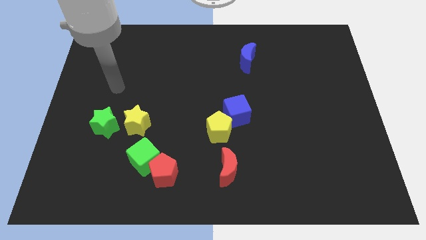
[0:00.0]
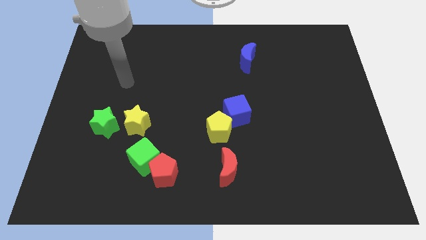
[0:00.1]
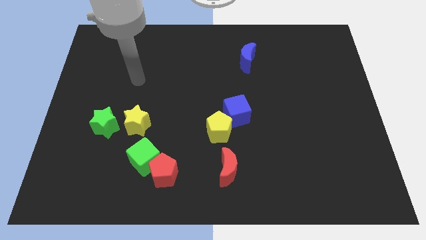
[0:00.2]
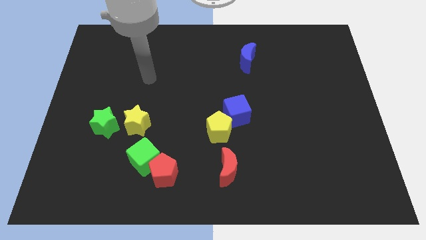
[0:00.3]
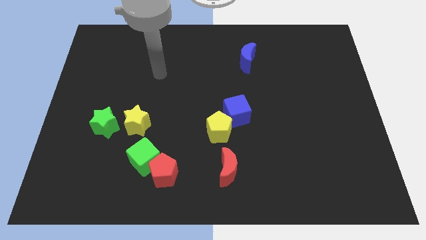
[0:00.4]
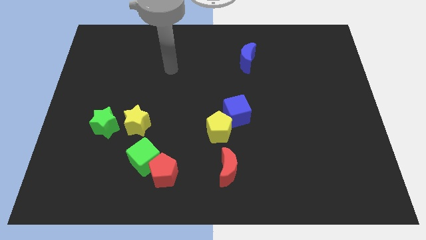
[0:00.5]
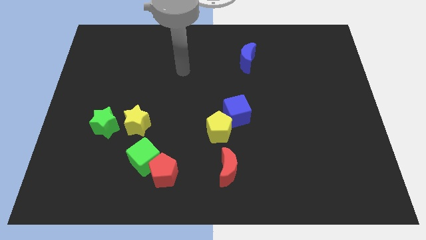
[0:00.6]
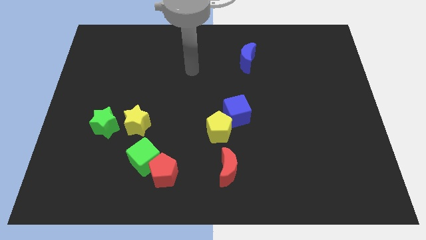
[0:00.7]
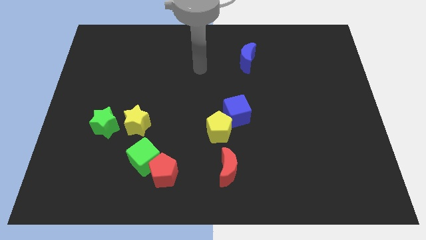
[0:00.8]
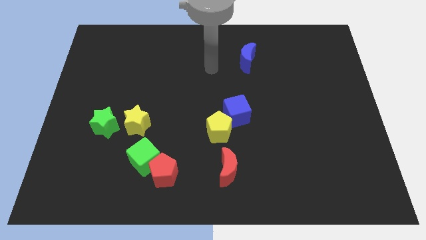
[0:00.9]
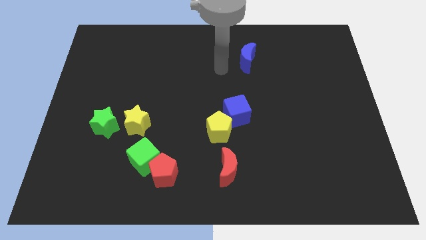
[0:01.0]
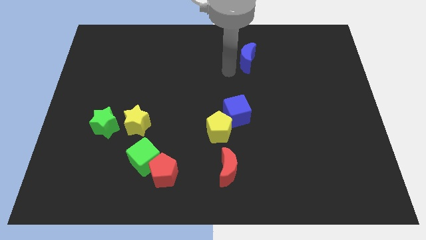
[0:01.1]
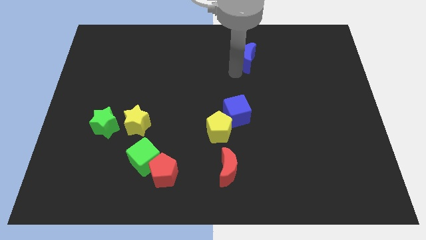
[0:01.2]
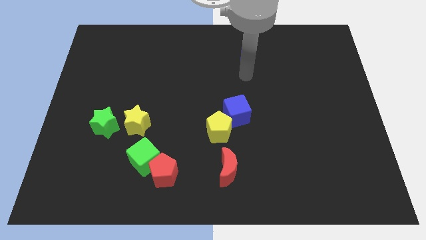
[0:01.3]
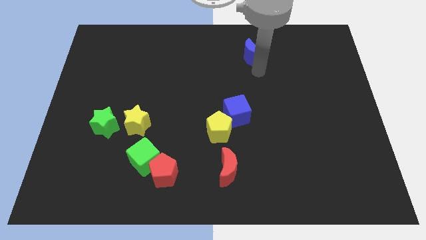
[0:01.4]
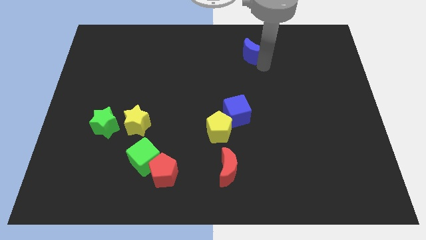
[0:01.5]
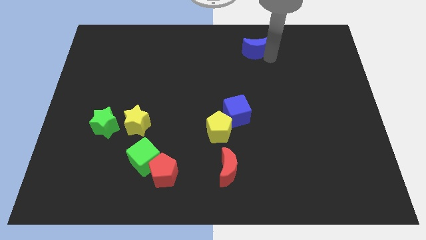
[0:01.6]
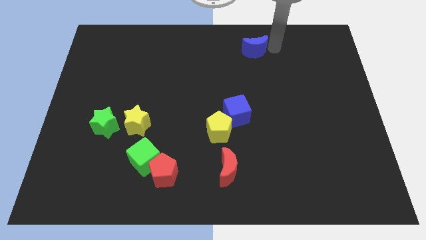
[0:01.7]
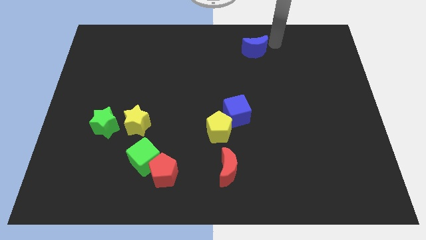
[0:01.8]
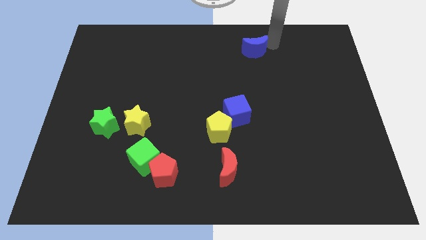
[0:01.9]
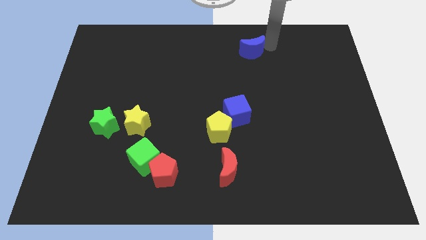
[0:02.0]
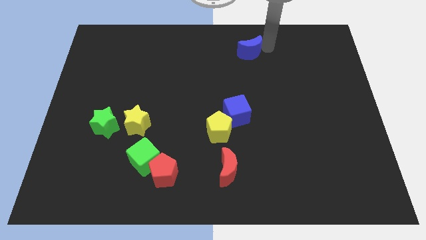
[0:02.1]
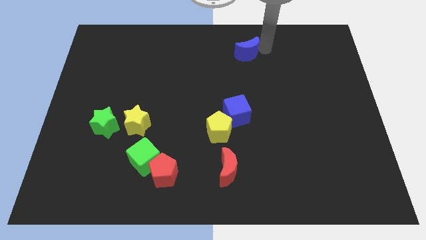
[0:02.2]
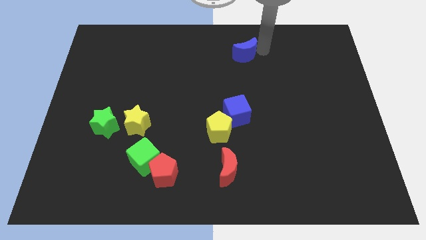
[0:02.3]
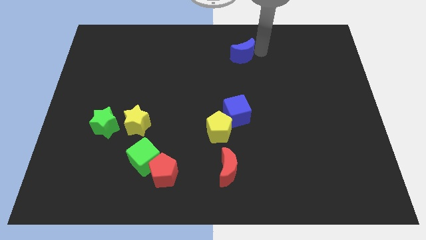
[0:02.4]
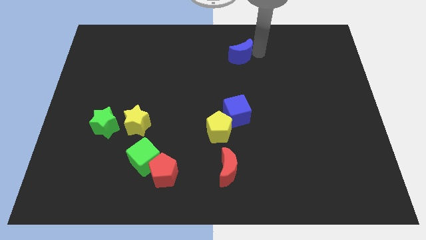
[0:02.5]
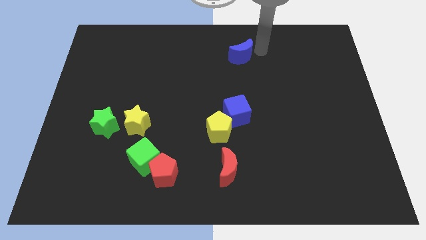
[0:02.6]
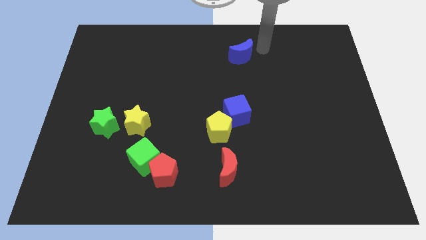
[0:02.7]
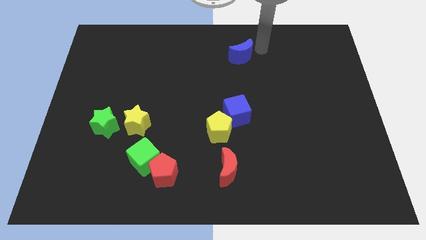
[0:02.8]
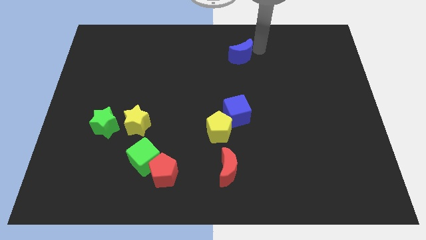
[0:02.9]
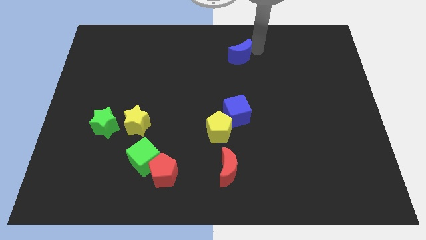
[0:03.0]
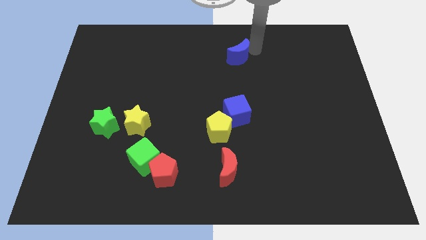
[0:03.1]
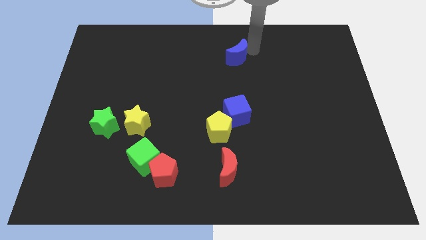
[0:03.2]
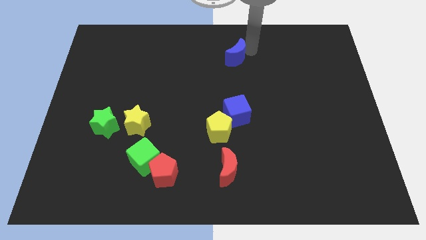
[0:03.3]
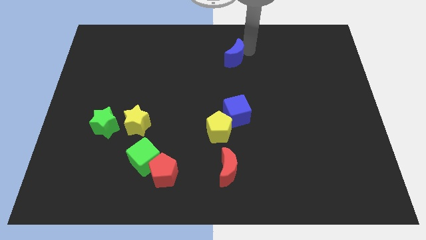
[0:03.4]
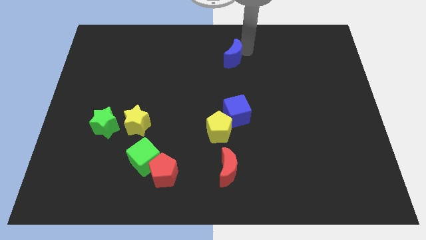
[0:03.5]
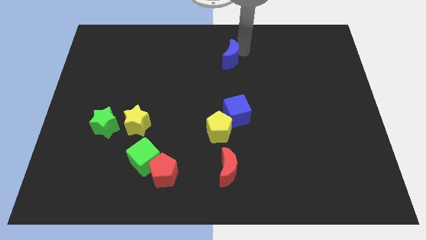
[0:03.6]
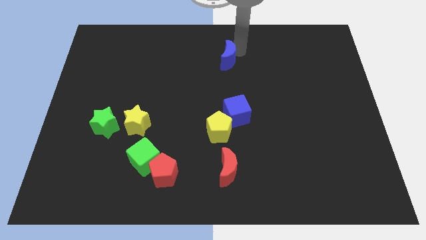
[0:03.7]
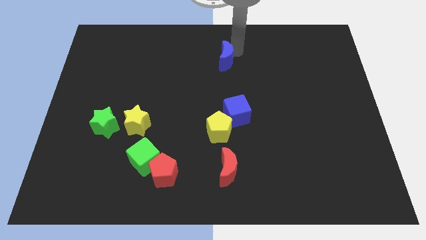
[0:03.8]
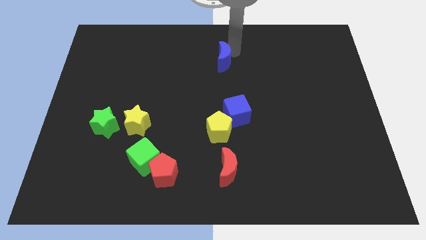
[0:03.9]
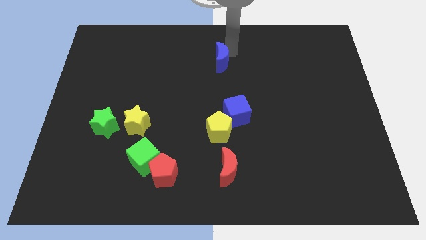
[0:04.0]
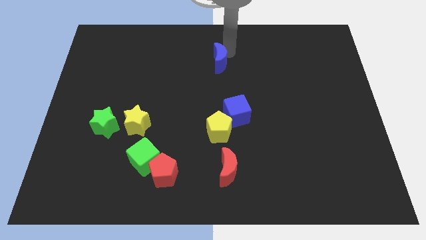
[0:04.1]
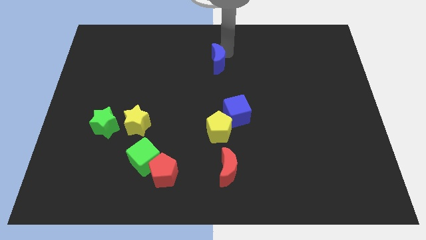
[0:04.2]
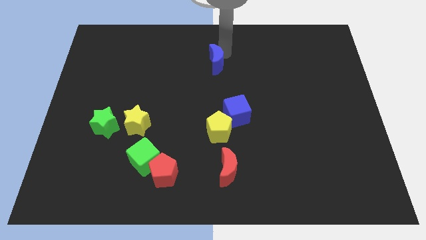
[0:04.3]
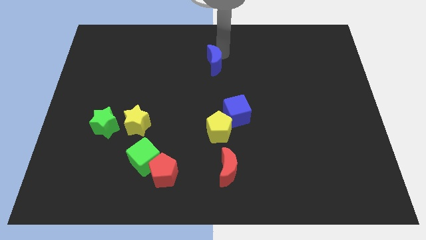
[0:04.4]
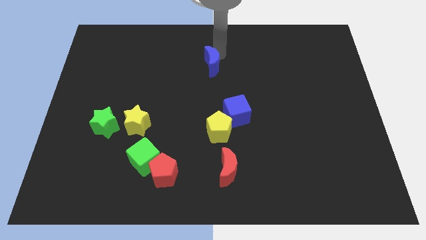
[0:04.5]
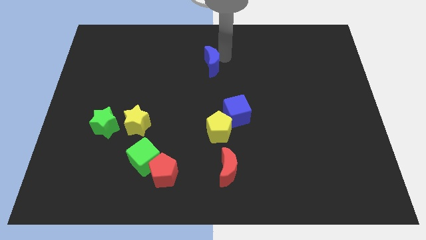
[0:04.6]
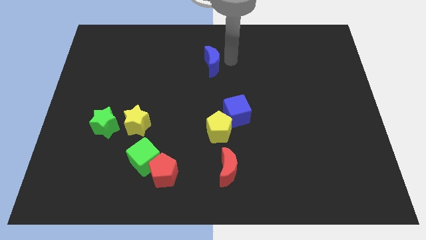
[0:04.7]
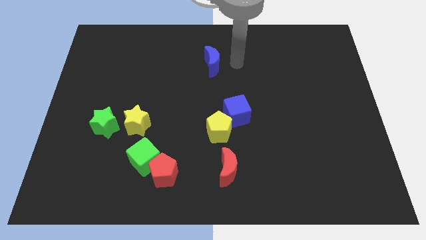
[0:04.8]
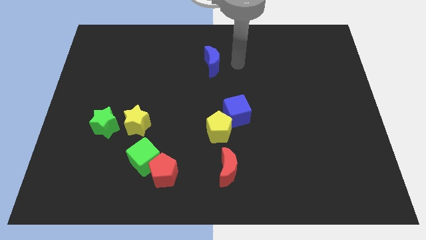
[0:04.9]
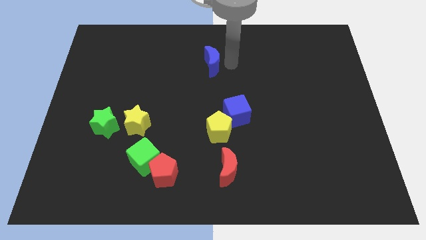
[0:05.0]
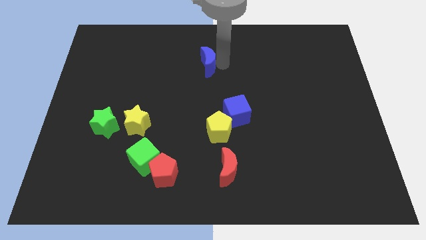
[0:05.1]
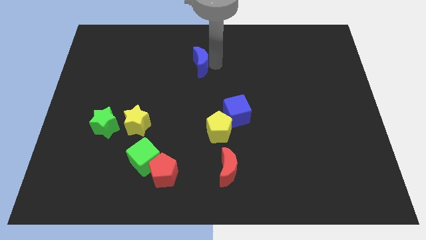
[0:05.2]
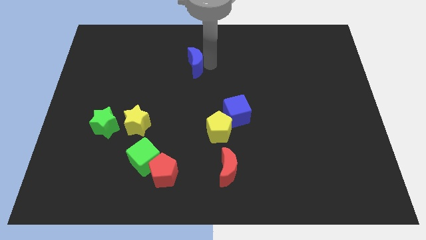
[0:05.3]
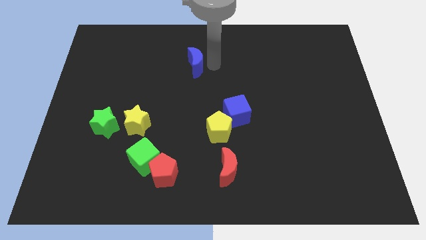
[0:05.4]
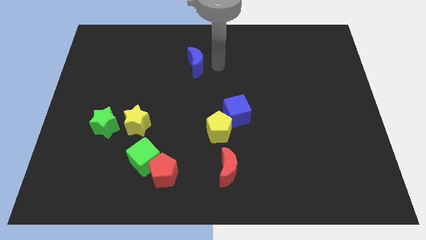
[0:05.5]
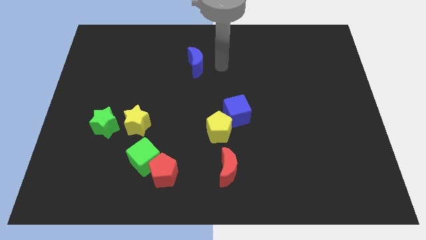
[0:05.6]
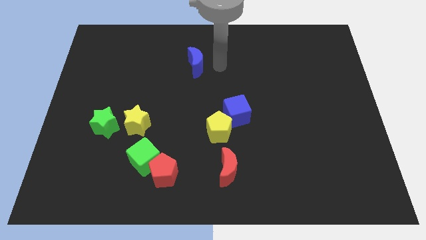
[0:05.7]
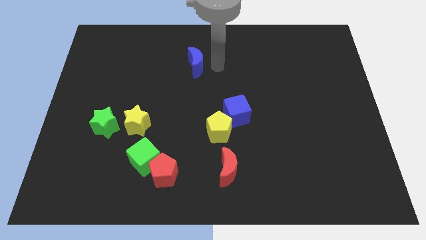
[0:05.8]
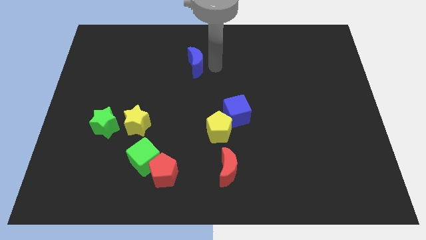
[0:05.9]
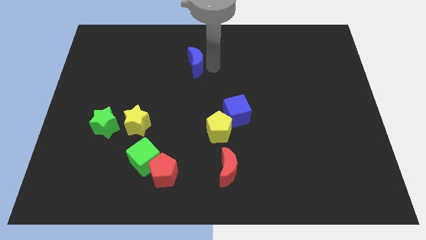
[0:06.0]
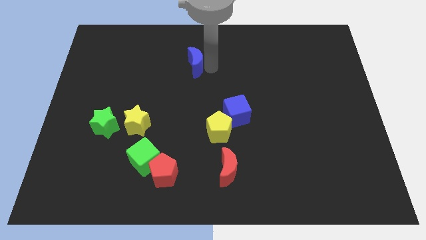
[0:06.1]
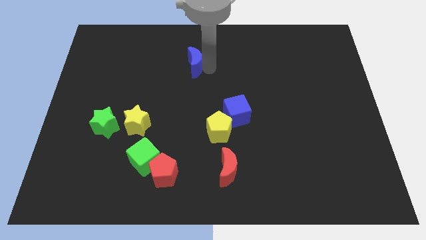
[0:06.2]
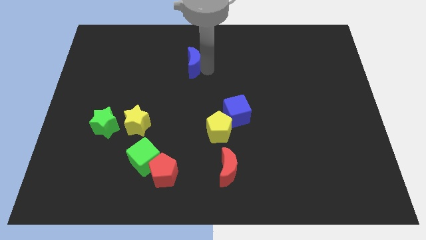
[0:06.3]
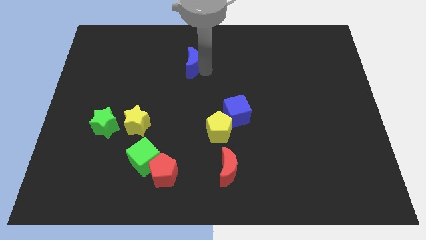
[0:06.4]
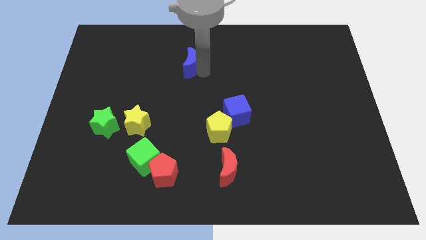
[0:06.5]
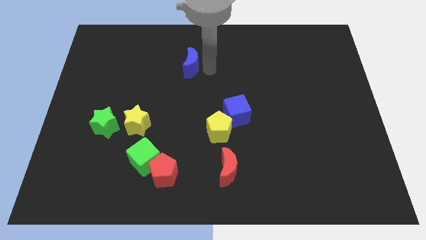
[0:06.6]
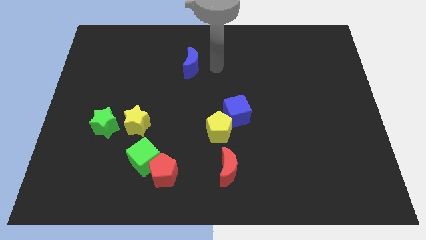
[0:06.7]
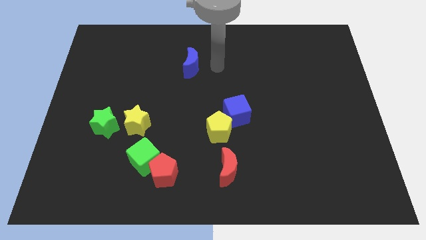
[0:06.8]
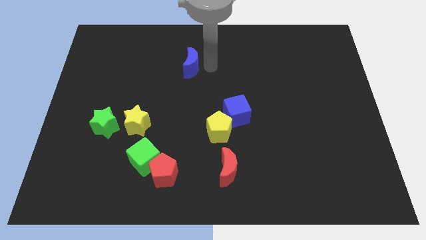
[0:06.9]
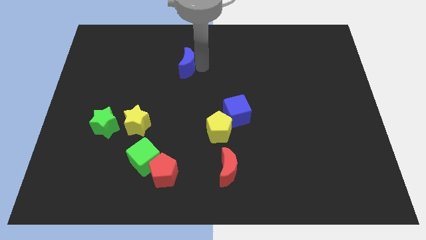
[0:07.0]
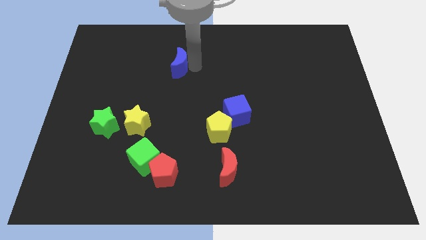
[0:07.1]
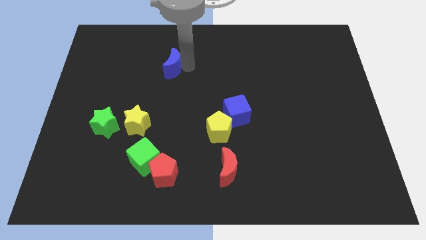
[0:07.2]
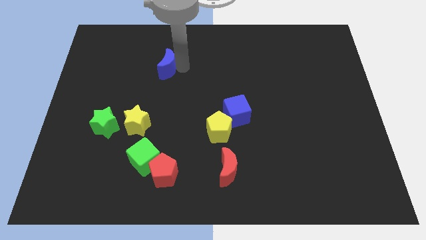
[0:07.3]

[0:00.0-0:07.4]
slide the blue moon to the left

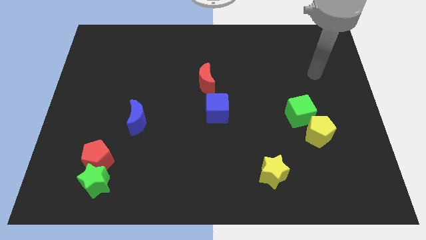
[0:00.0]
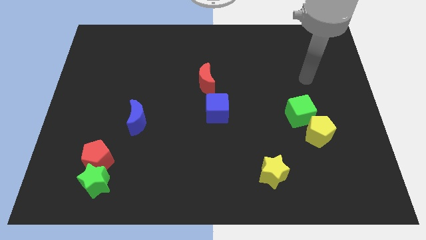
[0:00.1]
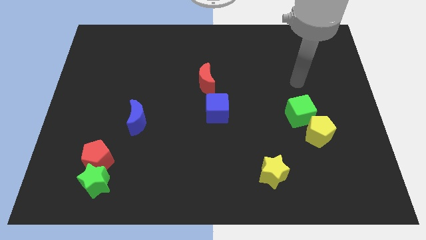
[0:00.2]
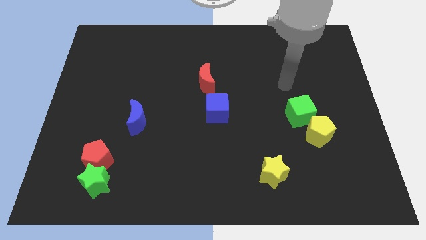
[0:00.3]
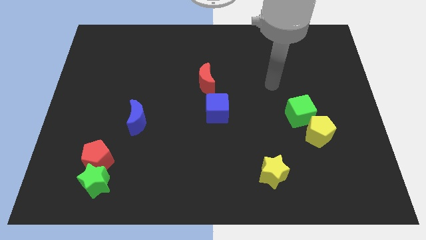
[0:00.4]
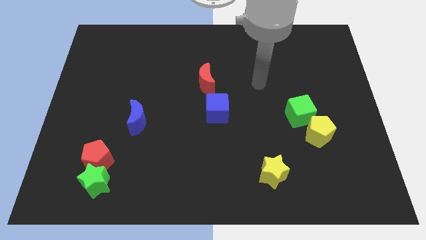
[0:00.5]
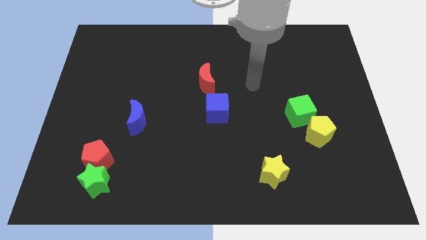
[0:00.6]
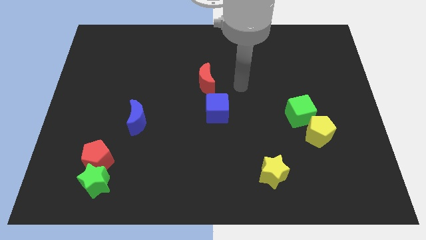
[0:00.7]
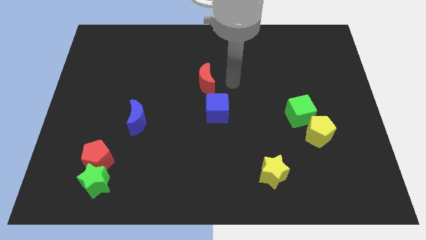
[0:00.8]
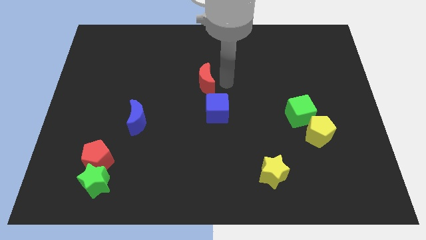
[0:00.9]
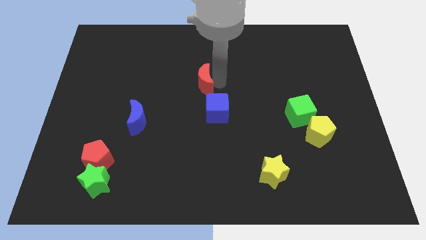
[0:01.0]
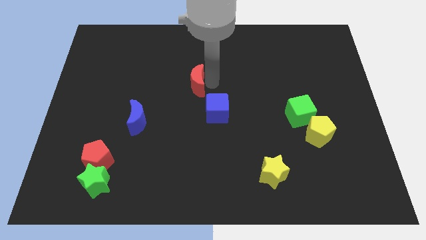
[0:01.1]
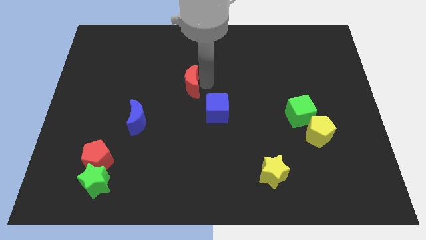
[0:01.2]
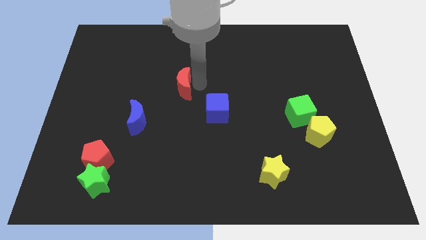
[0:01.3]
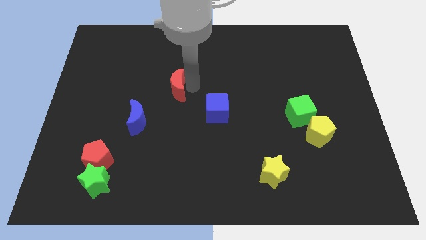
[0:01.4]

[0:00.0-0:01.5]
slightly push the red moon left
